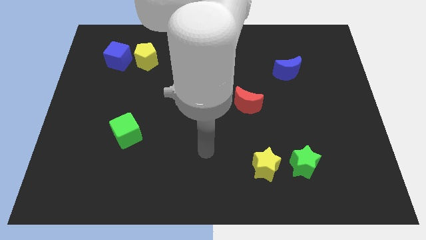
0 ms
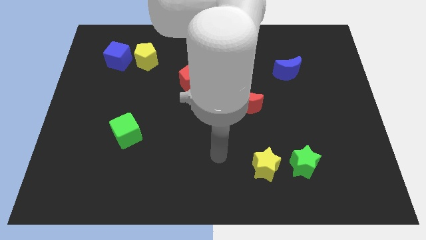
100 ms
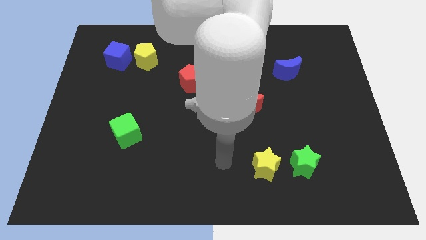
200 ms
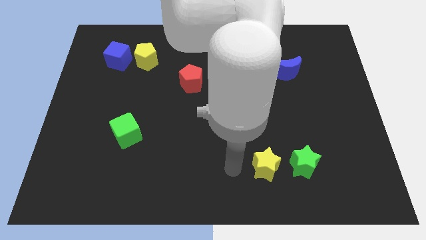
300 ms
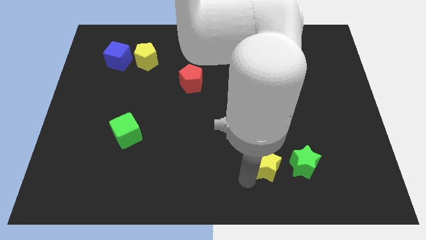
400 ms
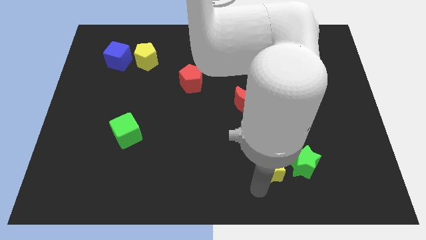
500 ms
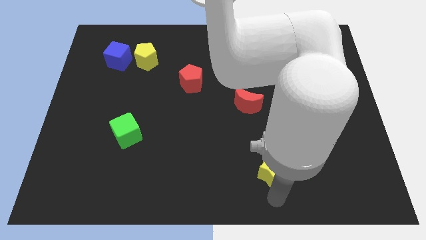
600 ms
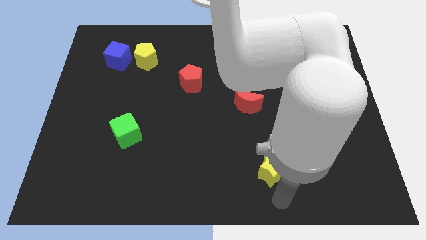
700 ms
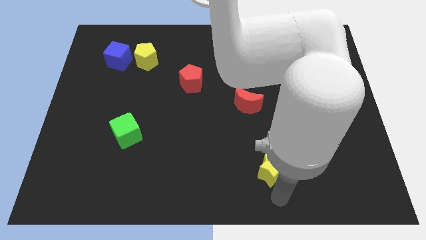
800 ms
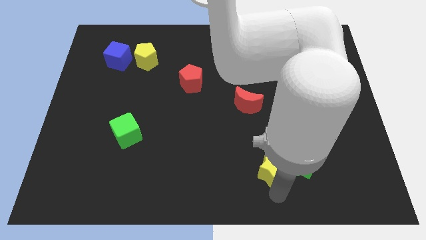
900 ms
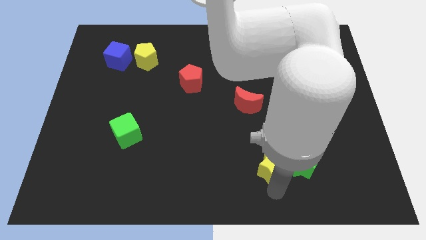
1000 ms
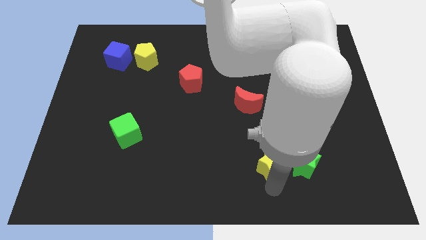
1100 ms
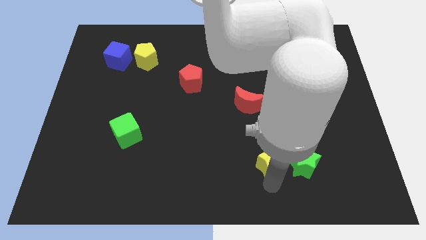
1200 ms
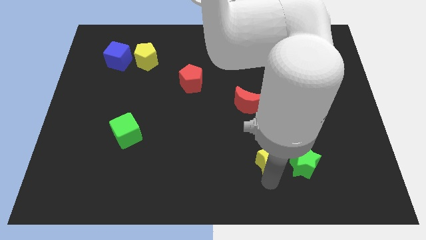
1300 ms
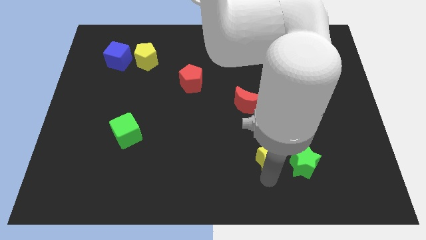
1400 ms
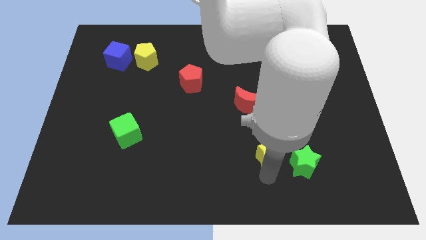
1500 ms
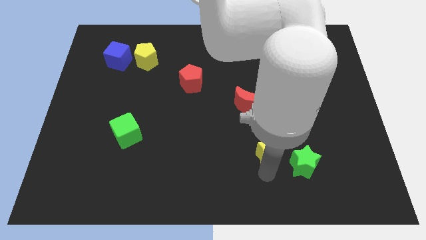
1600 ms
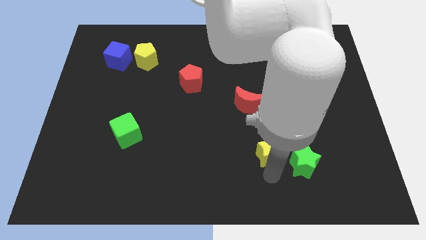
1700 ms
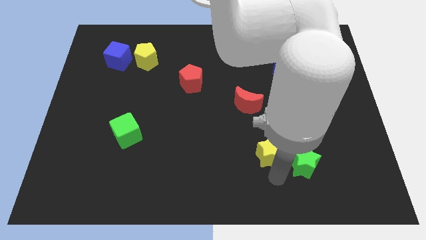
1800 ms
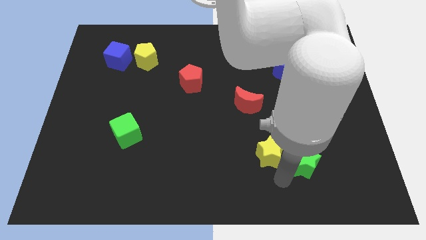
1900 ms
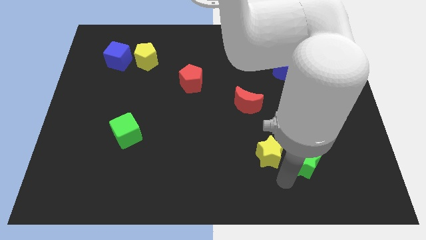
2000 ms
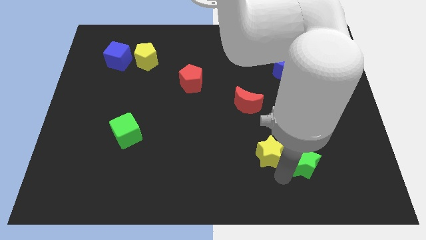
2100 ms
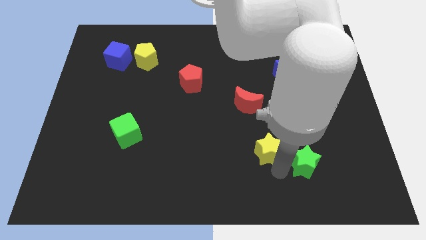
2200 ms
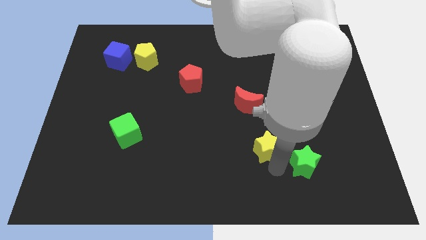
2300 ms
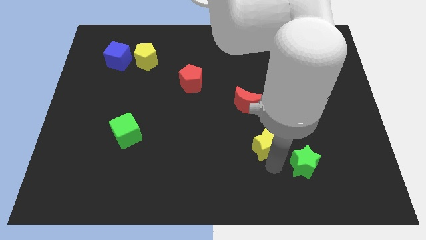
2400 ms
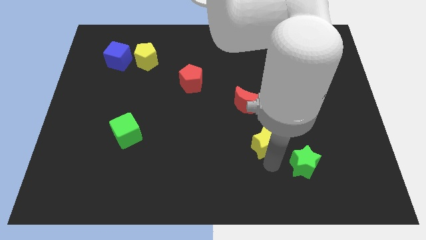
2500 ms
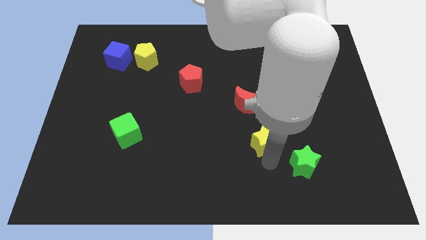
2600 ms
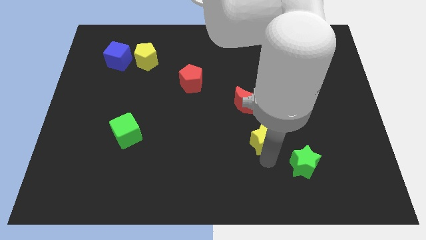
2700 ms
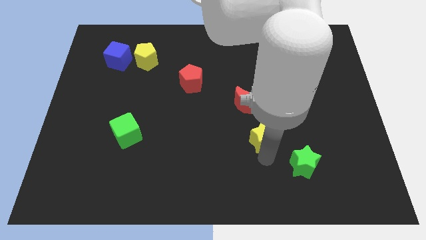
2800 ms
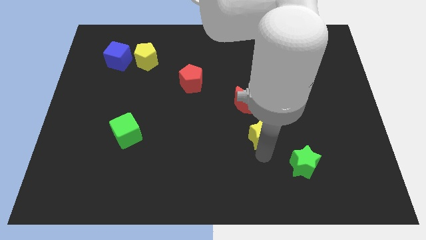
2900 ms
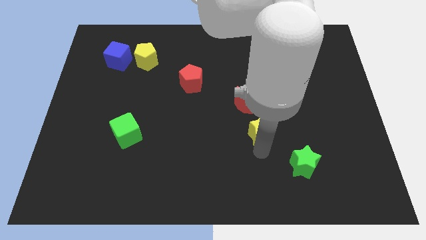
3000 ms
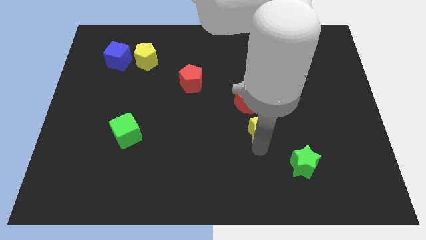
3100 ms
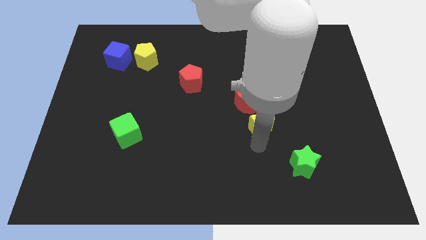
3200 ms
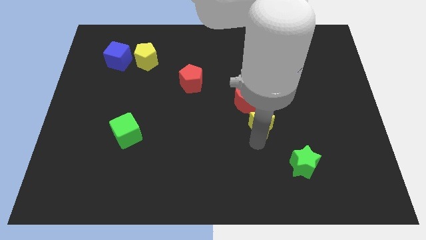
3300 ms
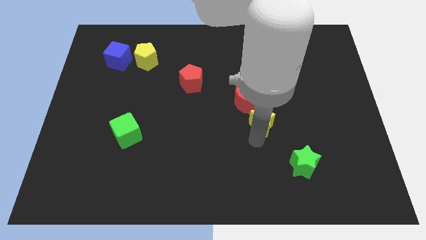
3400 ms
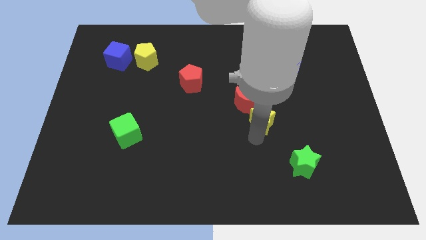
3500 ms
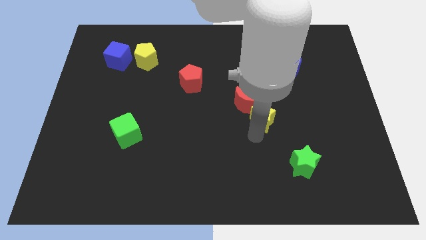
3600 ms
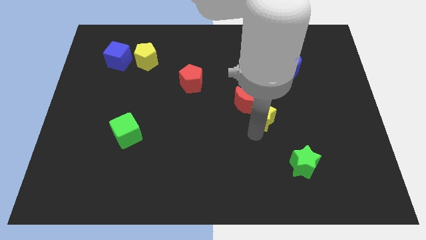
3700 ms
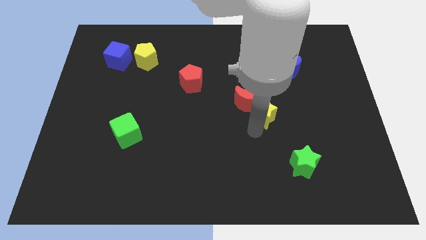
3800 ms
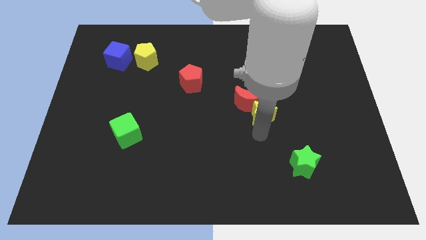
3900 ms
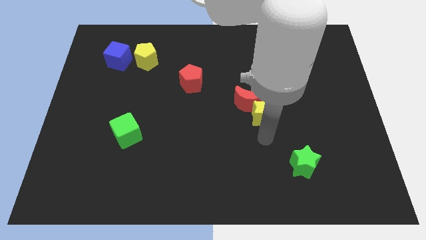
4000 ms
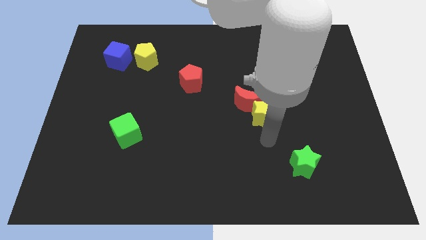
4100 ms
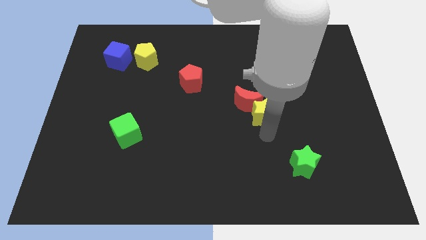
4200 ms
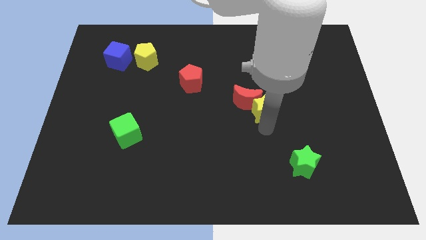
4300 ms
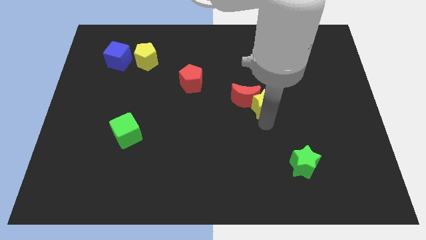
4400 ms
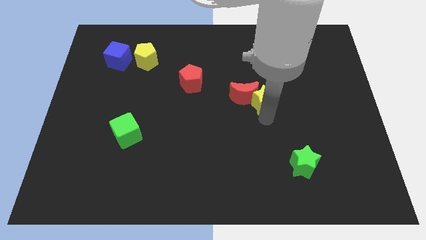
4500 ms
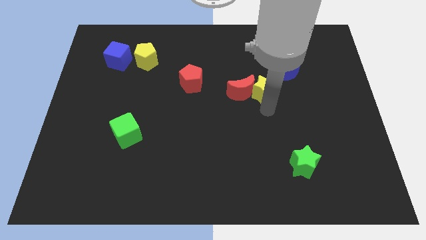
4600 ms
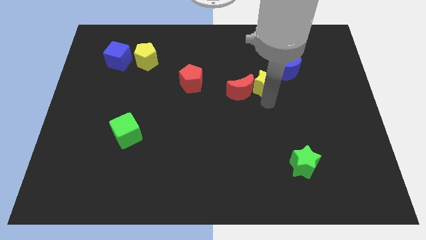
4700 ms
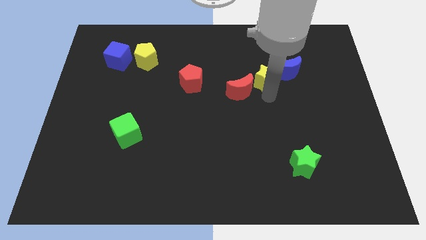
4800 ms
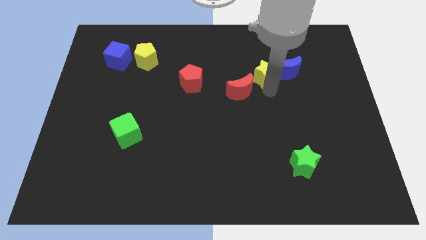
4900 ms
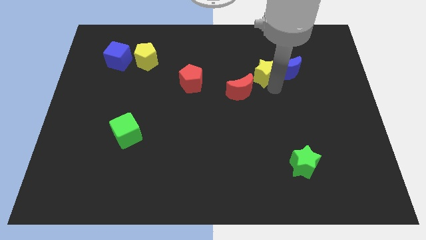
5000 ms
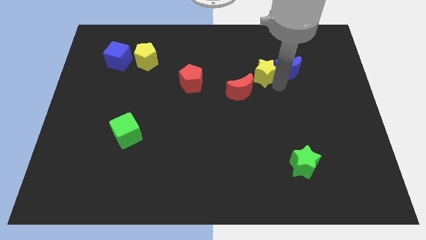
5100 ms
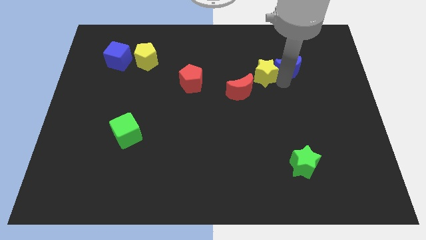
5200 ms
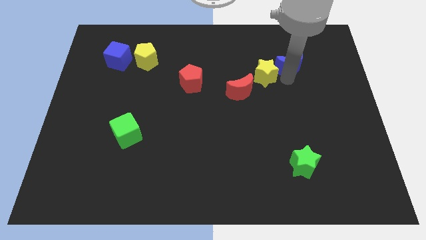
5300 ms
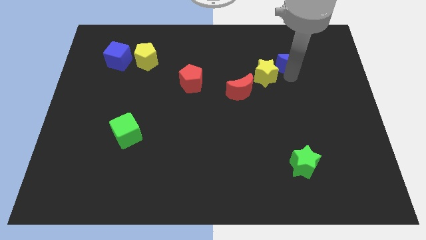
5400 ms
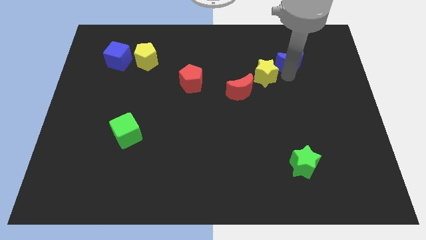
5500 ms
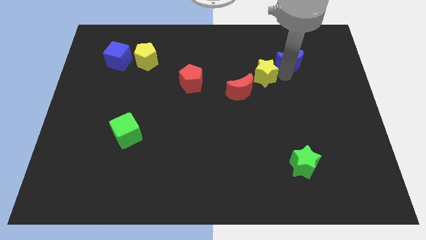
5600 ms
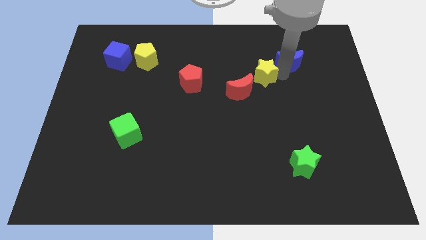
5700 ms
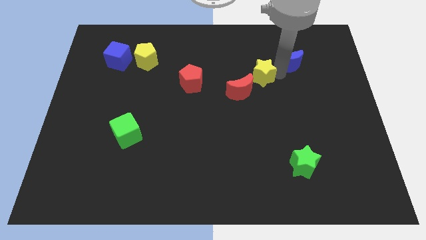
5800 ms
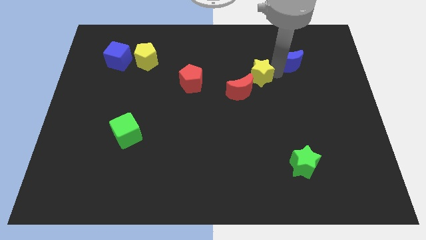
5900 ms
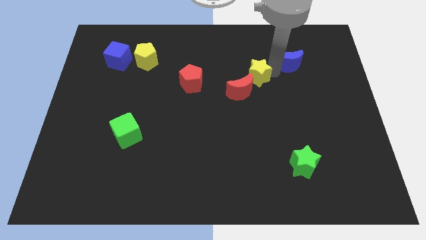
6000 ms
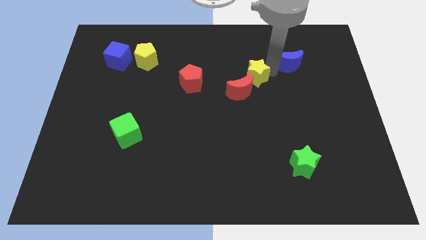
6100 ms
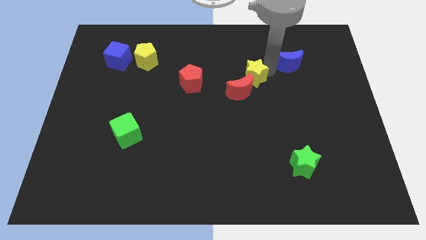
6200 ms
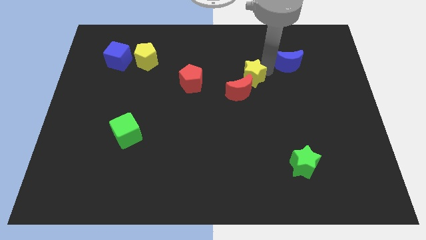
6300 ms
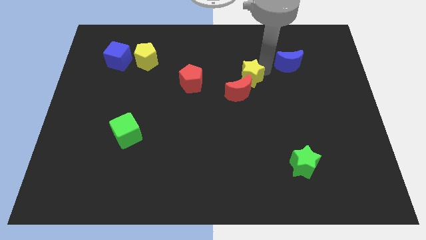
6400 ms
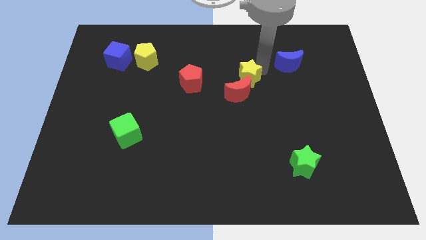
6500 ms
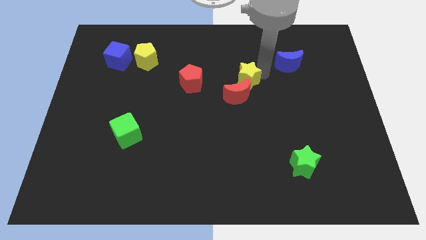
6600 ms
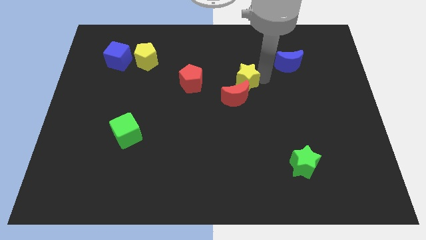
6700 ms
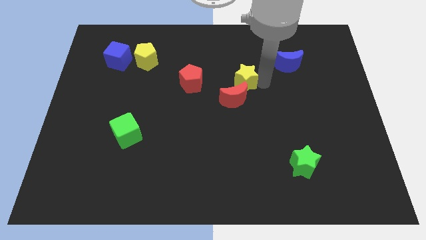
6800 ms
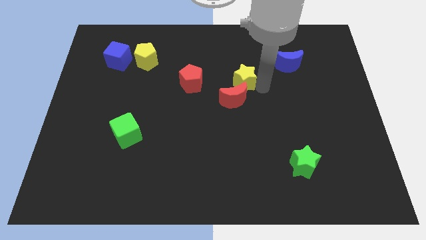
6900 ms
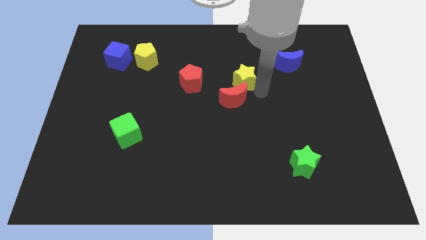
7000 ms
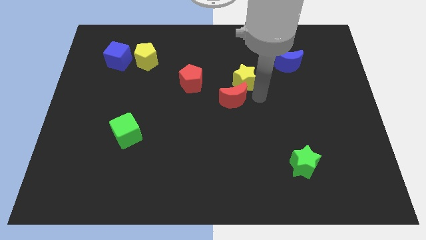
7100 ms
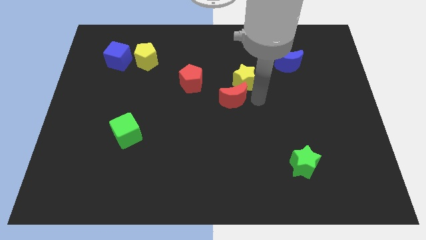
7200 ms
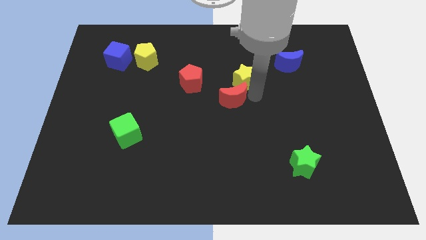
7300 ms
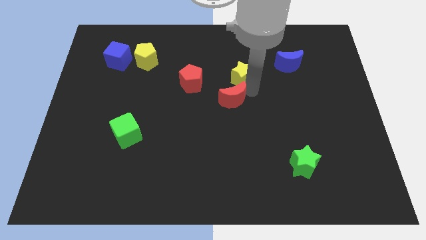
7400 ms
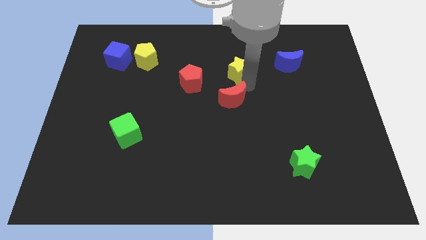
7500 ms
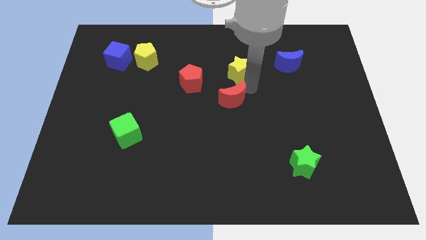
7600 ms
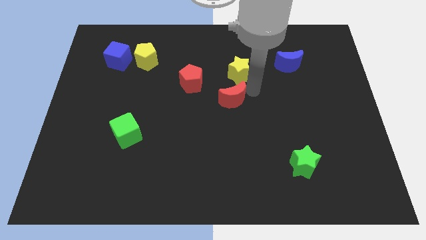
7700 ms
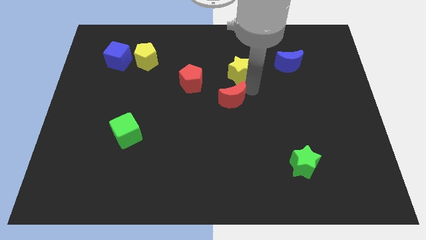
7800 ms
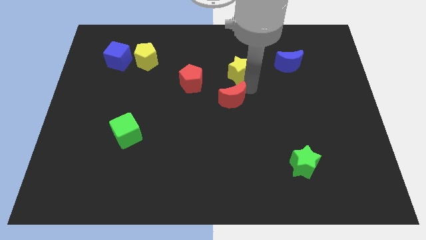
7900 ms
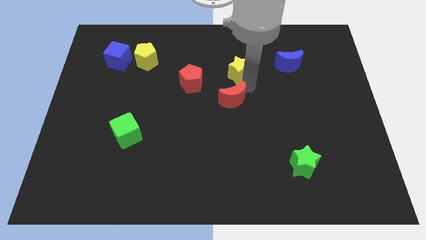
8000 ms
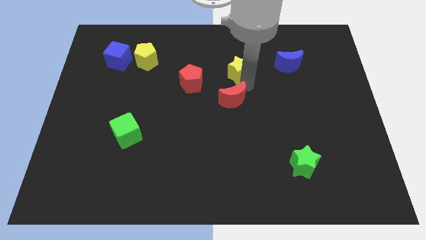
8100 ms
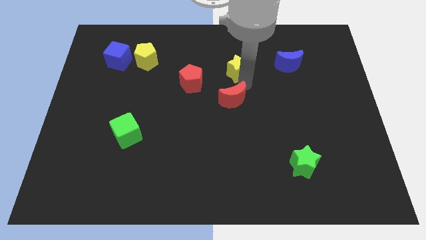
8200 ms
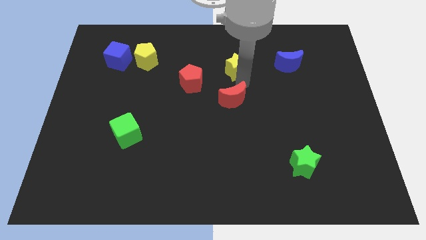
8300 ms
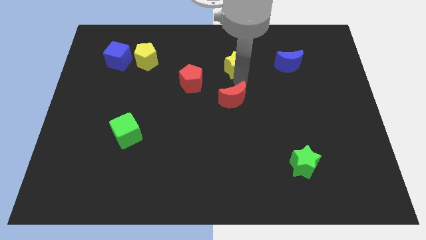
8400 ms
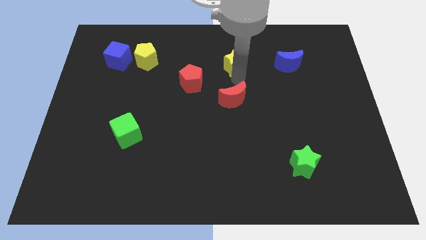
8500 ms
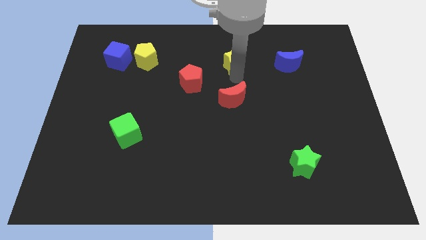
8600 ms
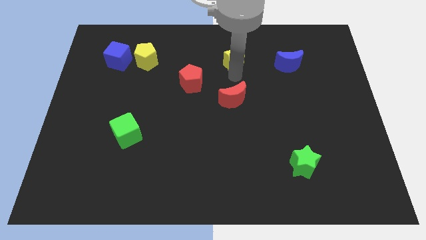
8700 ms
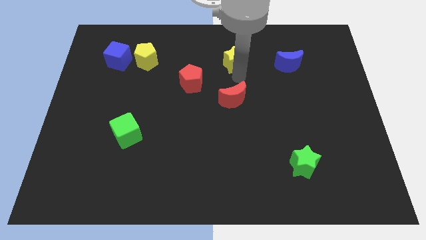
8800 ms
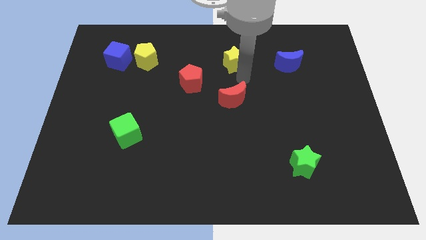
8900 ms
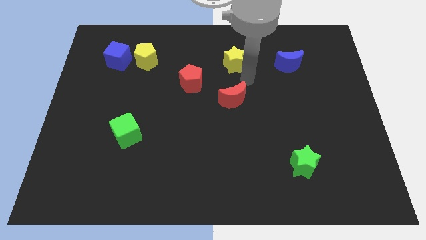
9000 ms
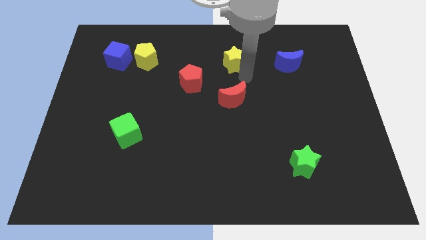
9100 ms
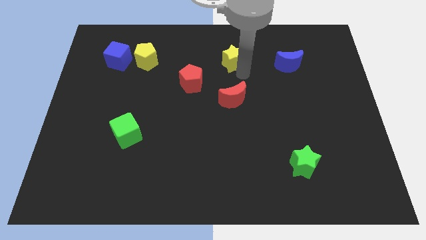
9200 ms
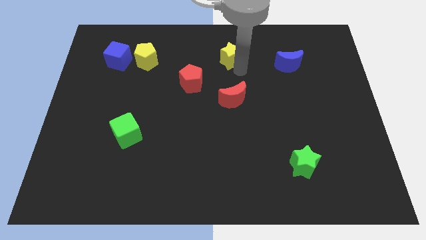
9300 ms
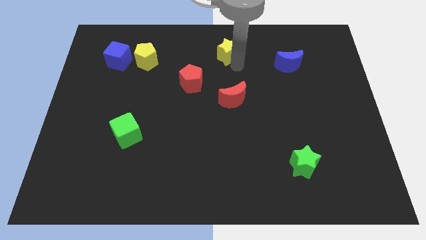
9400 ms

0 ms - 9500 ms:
move the yellow star to the top side
